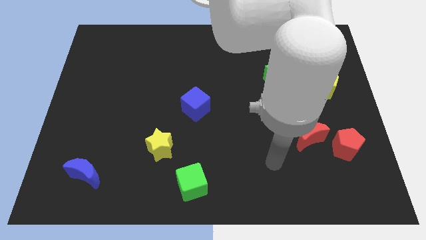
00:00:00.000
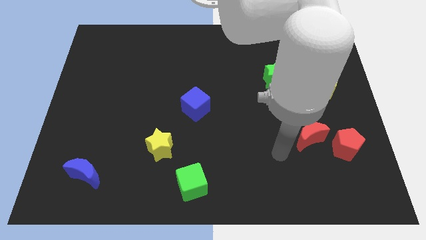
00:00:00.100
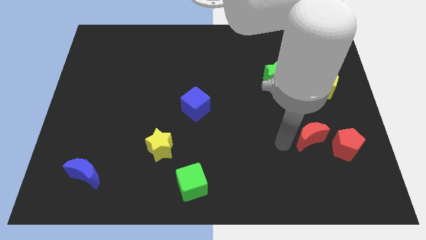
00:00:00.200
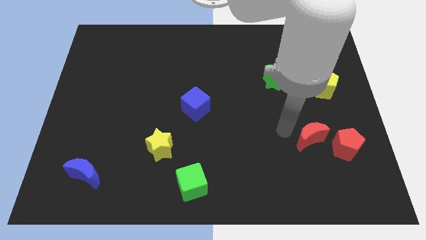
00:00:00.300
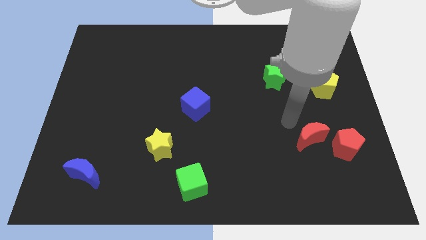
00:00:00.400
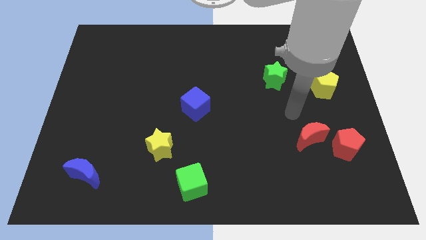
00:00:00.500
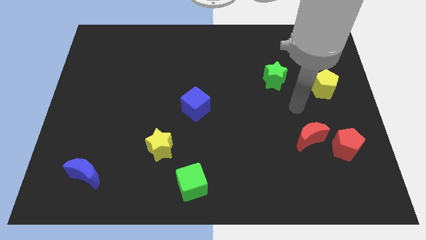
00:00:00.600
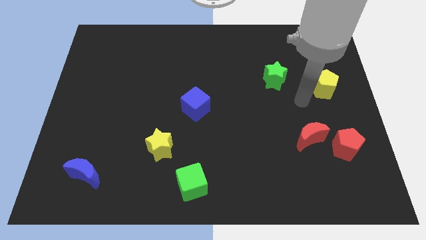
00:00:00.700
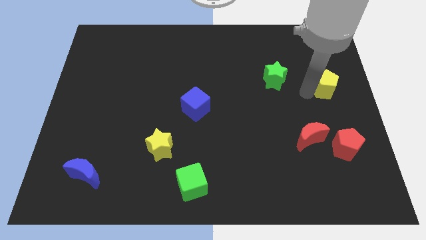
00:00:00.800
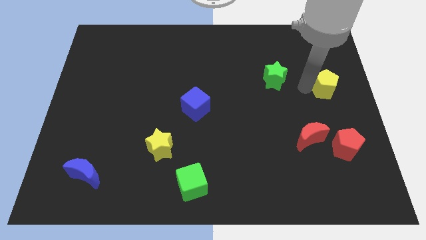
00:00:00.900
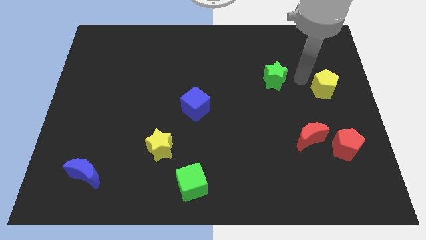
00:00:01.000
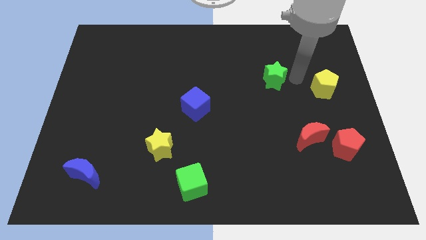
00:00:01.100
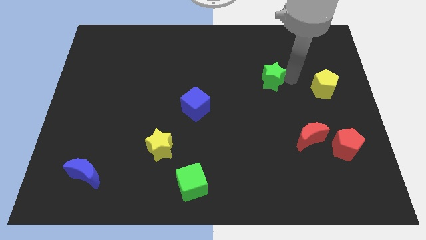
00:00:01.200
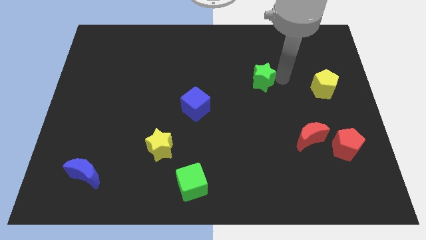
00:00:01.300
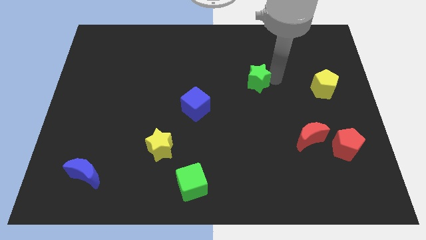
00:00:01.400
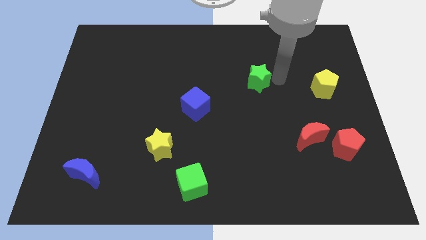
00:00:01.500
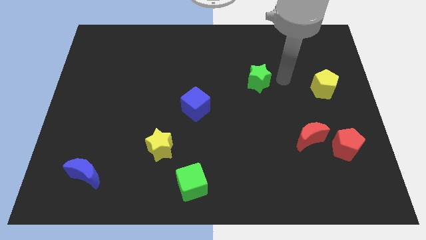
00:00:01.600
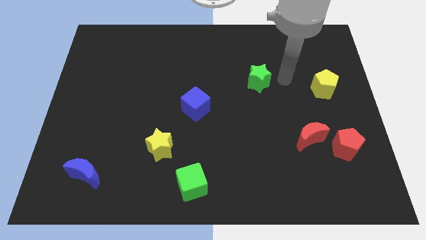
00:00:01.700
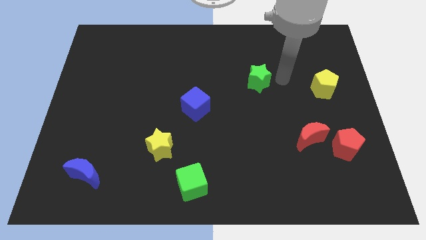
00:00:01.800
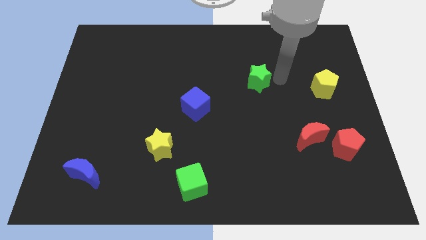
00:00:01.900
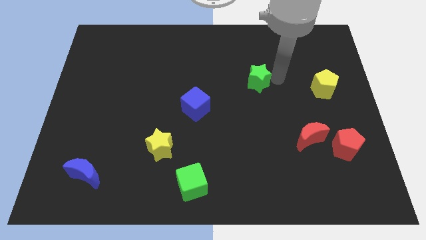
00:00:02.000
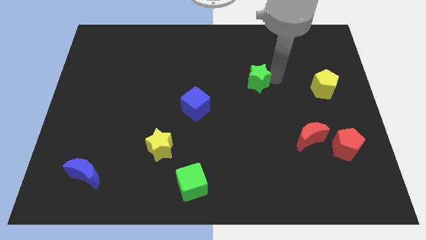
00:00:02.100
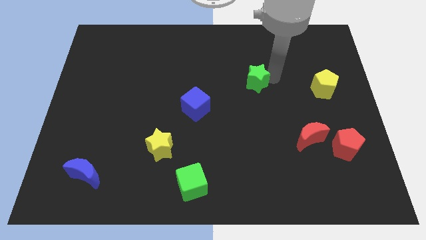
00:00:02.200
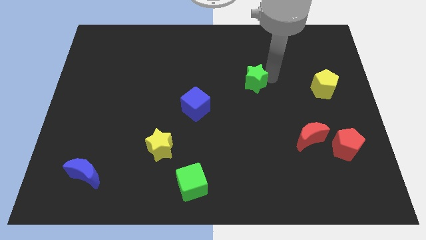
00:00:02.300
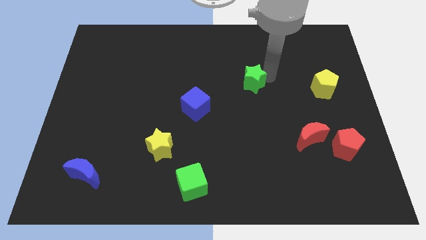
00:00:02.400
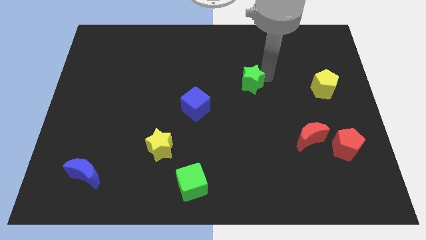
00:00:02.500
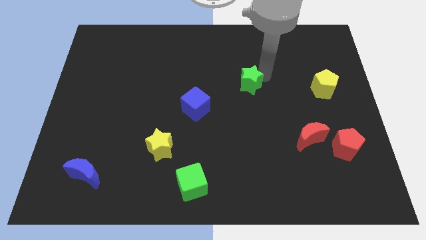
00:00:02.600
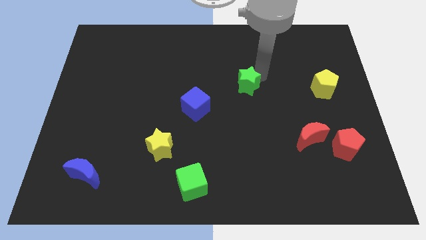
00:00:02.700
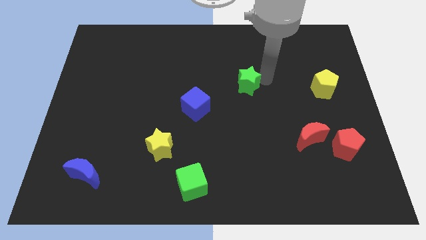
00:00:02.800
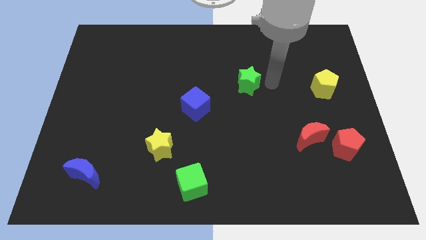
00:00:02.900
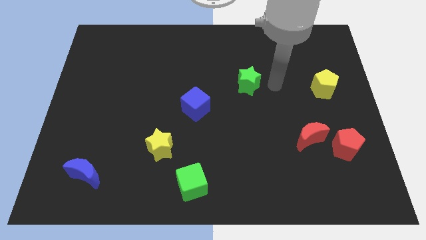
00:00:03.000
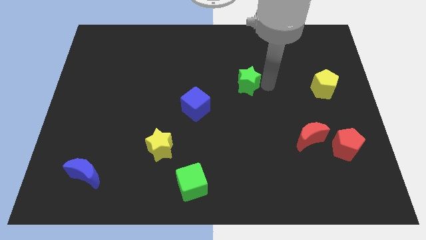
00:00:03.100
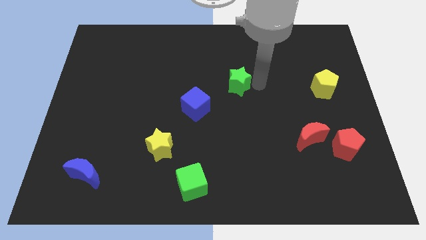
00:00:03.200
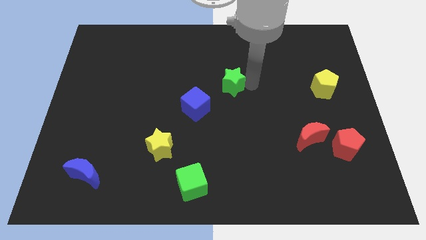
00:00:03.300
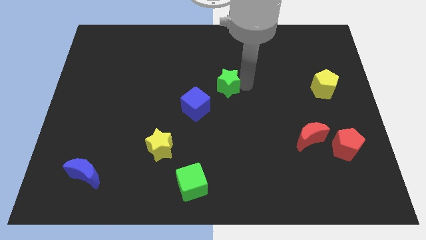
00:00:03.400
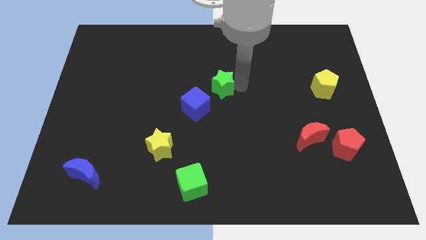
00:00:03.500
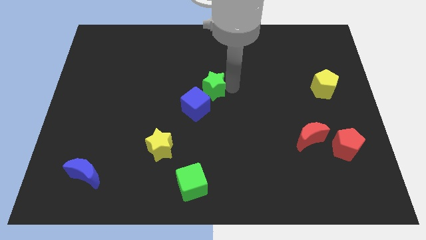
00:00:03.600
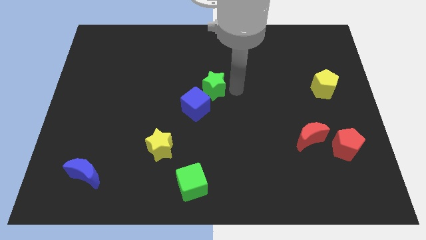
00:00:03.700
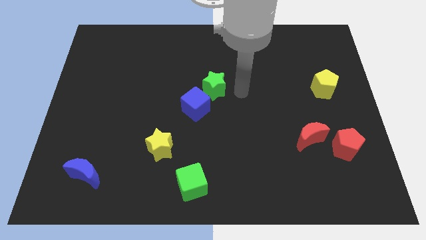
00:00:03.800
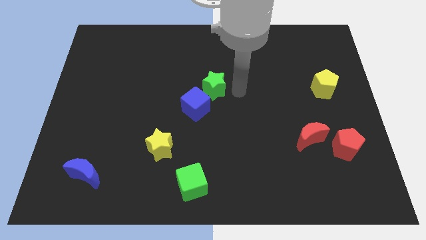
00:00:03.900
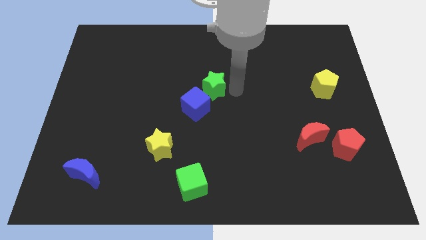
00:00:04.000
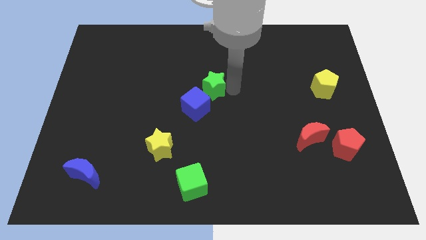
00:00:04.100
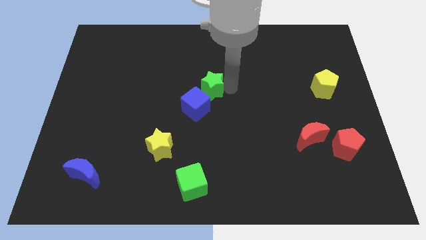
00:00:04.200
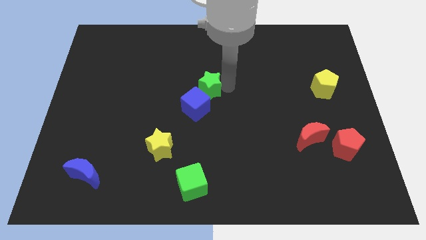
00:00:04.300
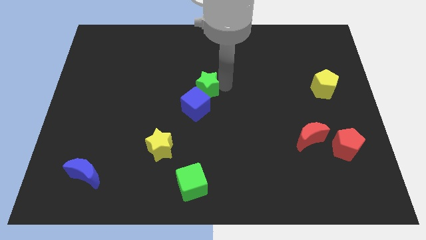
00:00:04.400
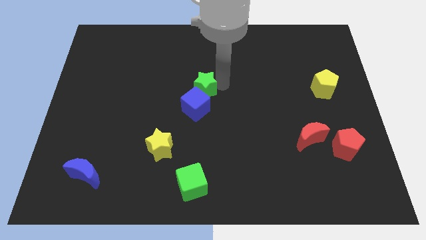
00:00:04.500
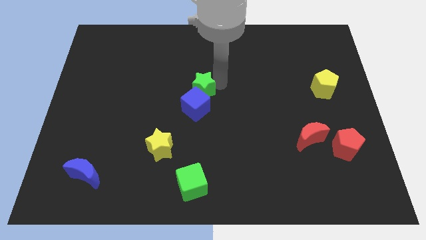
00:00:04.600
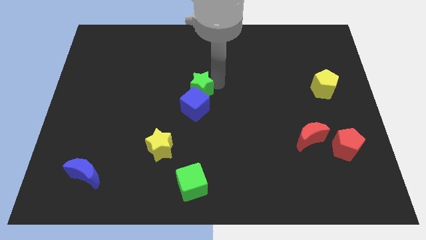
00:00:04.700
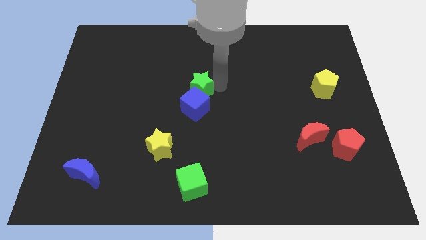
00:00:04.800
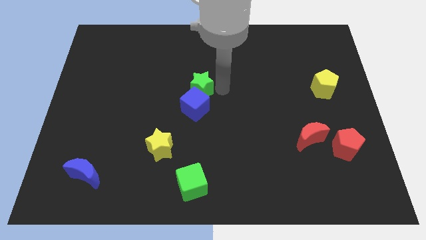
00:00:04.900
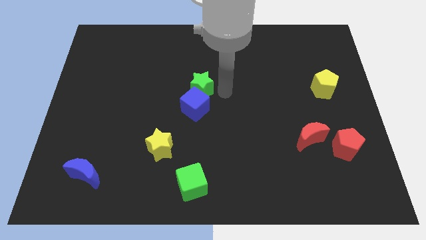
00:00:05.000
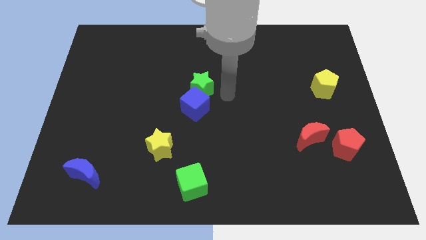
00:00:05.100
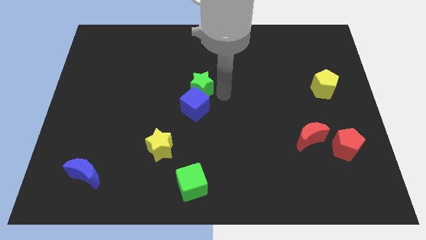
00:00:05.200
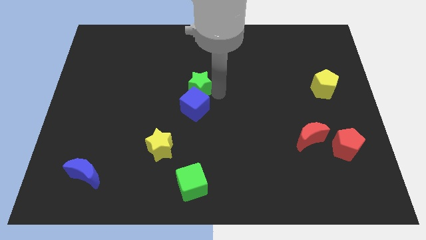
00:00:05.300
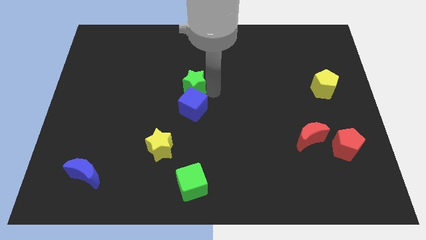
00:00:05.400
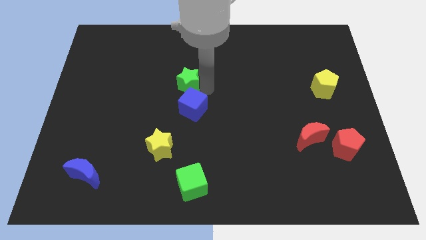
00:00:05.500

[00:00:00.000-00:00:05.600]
push the green star left

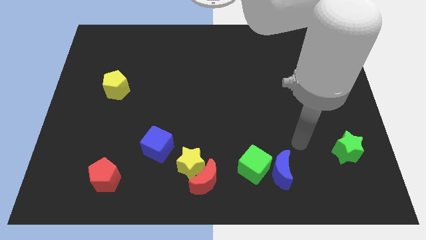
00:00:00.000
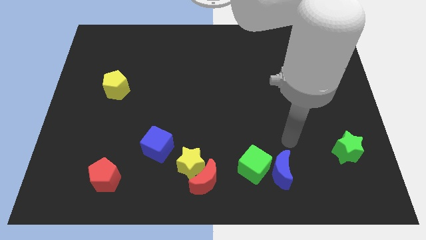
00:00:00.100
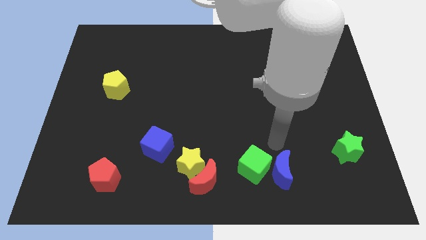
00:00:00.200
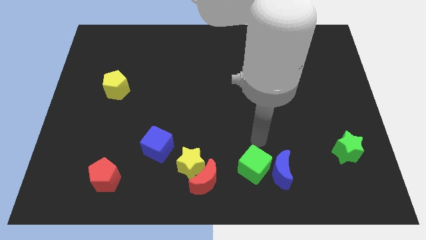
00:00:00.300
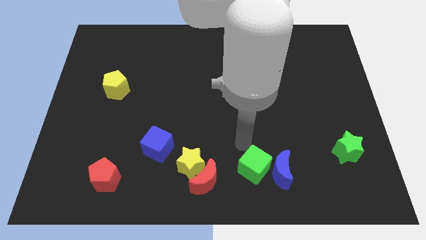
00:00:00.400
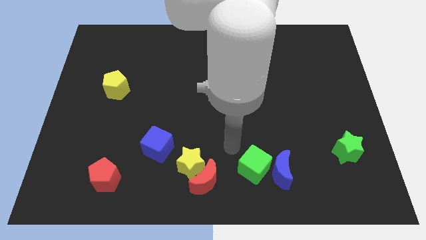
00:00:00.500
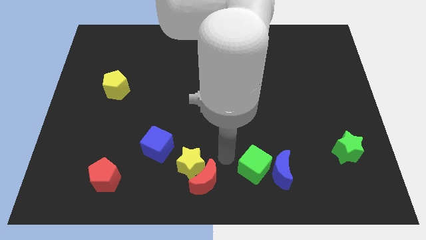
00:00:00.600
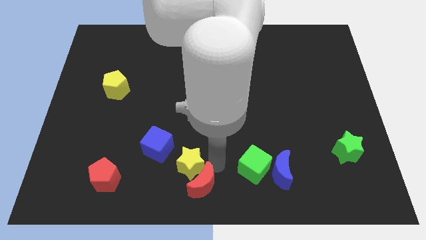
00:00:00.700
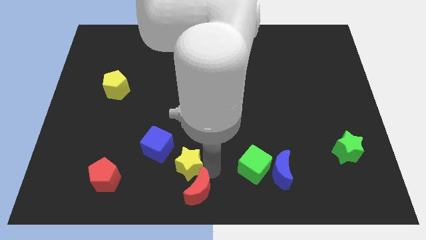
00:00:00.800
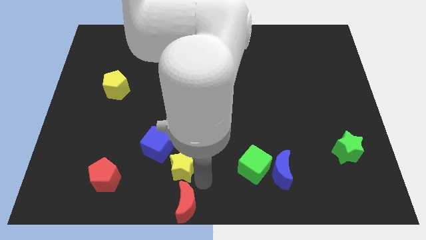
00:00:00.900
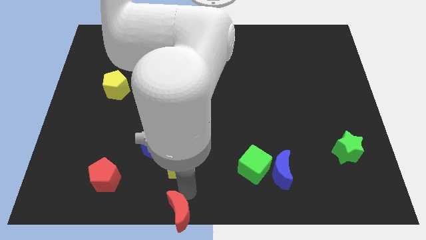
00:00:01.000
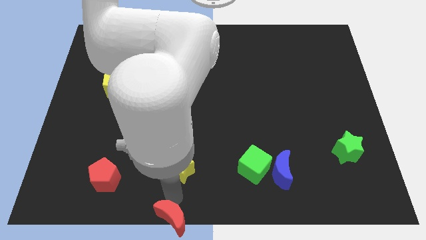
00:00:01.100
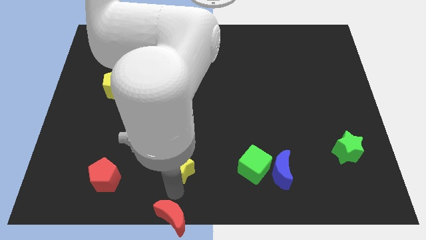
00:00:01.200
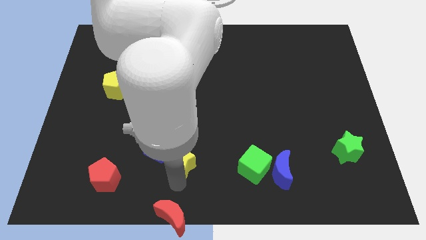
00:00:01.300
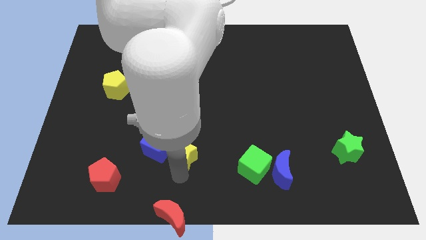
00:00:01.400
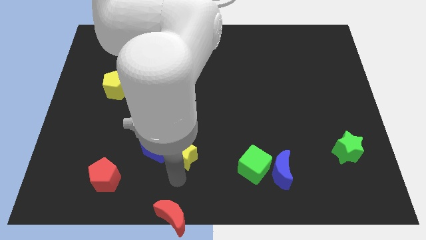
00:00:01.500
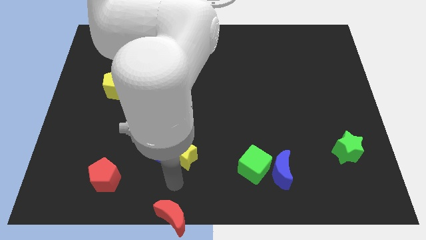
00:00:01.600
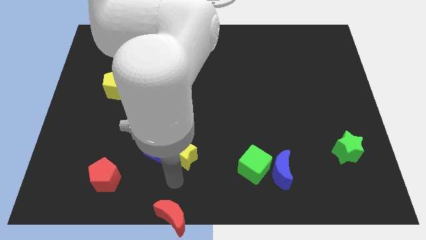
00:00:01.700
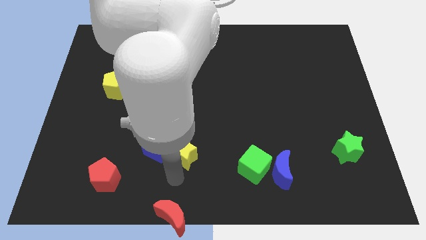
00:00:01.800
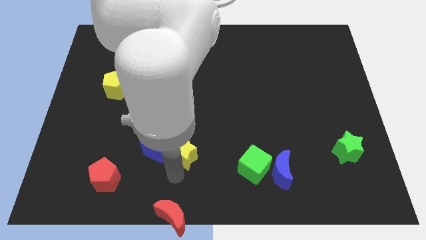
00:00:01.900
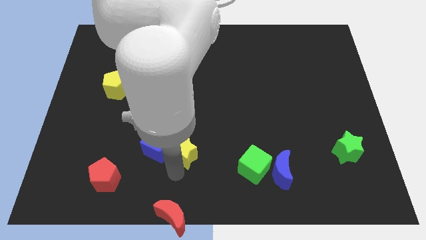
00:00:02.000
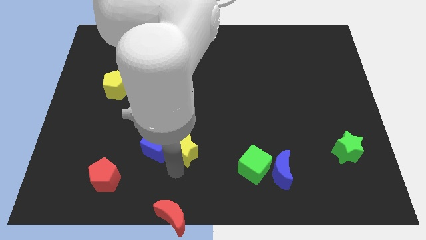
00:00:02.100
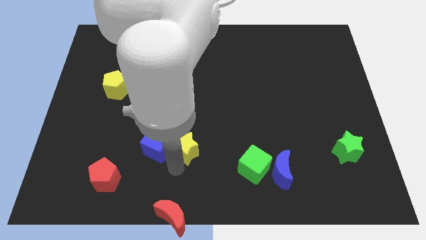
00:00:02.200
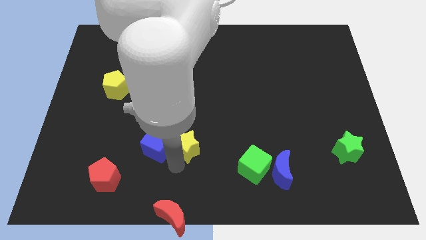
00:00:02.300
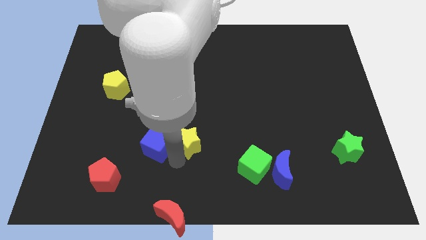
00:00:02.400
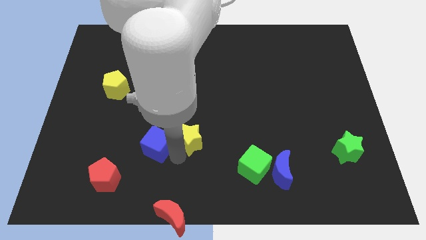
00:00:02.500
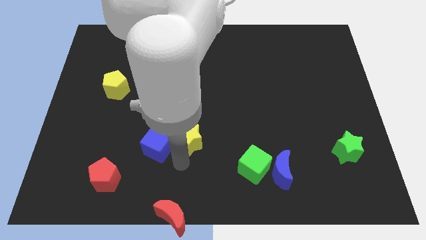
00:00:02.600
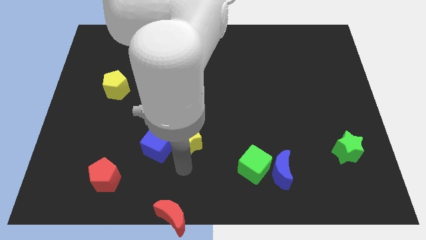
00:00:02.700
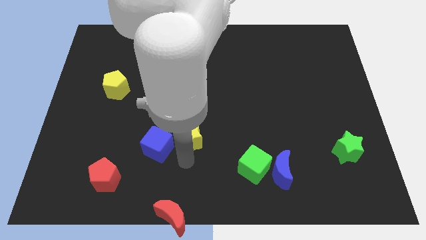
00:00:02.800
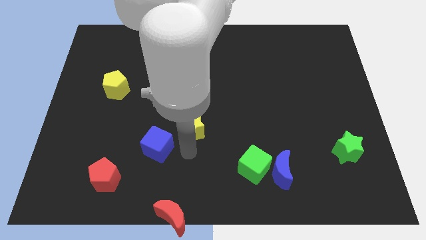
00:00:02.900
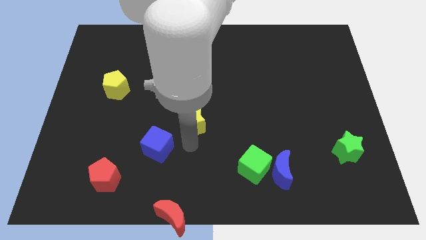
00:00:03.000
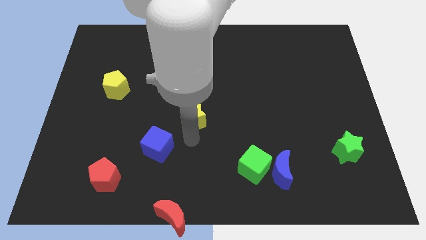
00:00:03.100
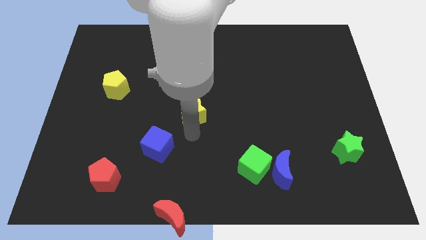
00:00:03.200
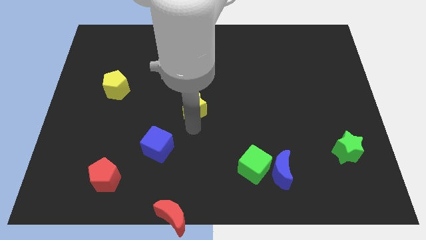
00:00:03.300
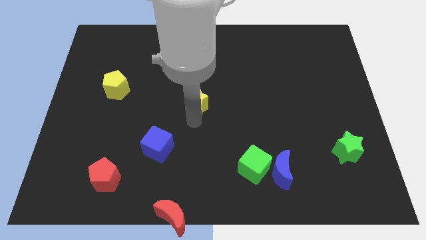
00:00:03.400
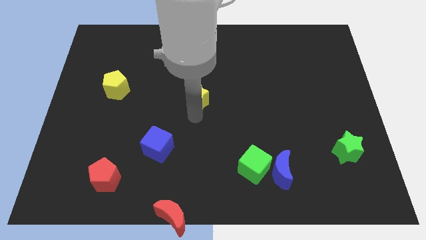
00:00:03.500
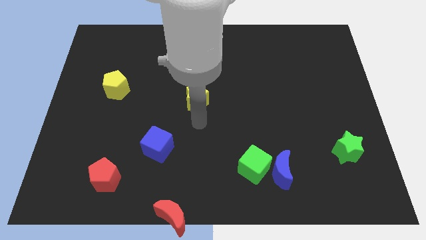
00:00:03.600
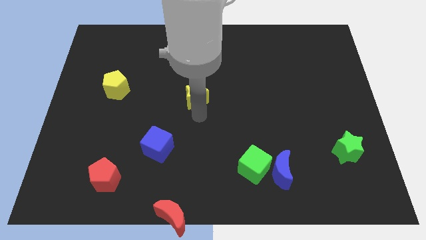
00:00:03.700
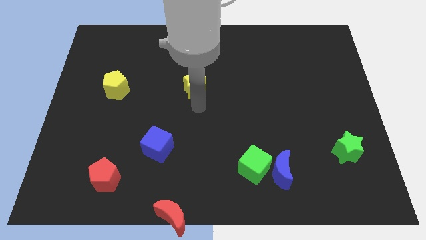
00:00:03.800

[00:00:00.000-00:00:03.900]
push the yellow star up
